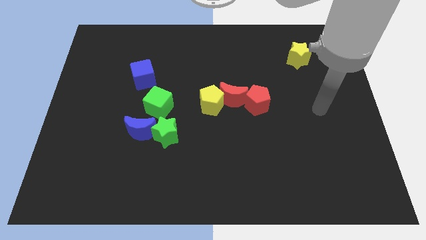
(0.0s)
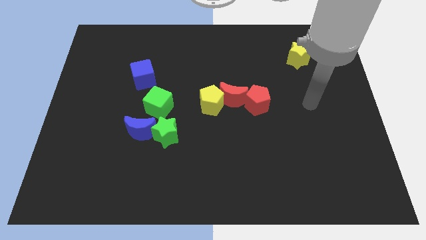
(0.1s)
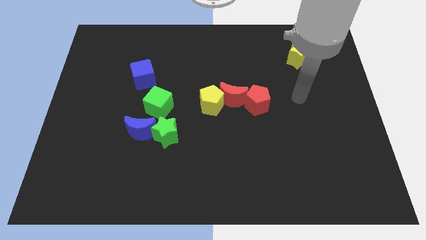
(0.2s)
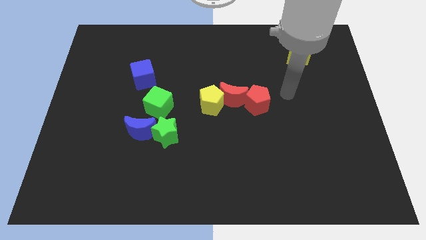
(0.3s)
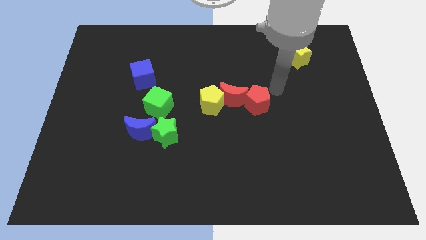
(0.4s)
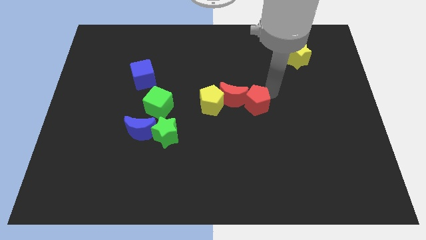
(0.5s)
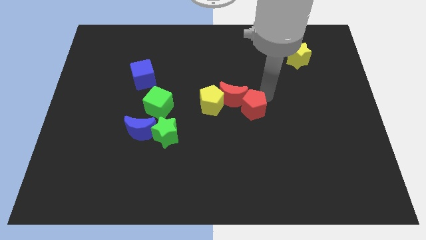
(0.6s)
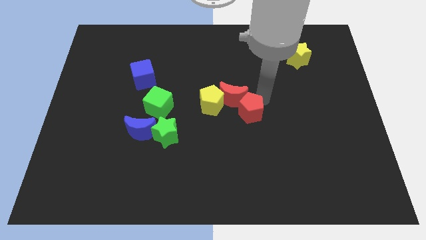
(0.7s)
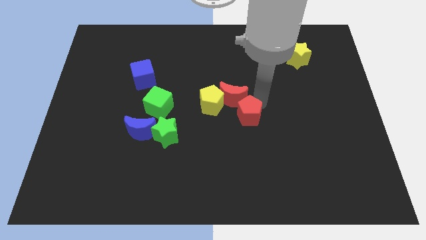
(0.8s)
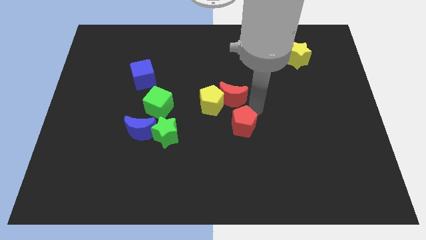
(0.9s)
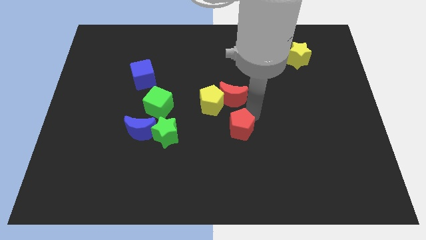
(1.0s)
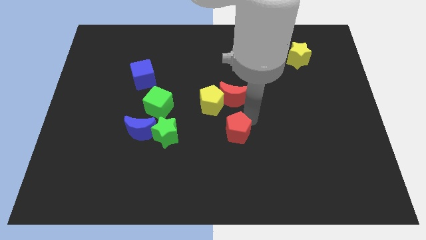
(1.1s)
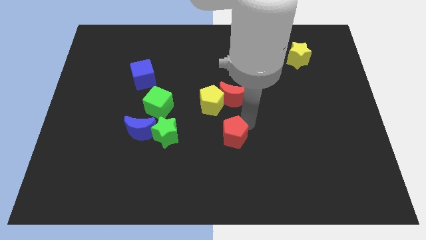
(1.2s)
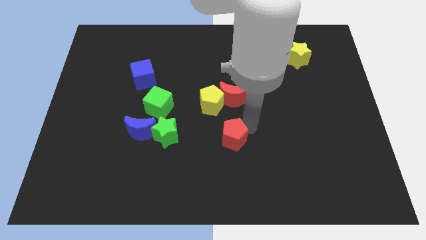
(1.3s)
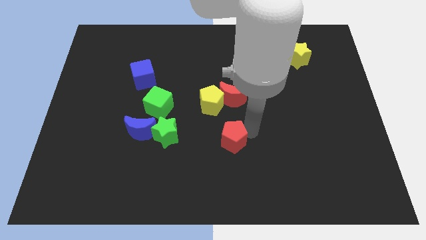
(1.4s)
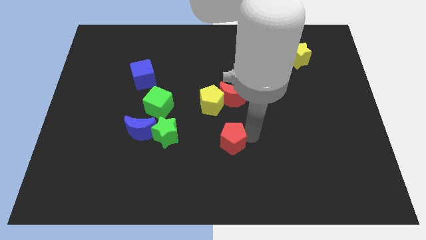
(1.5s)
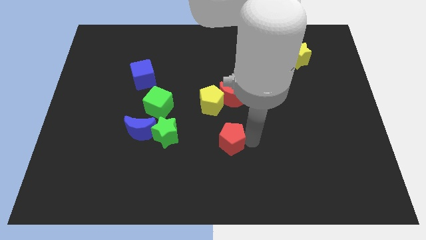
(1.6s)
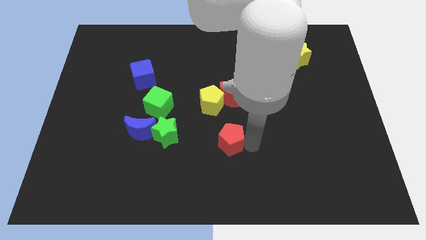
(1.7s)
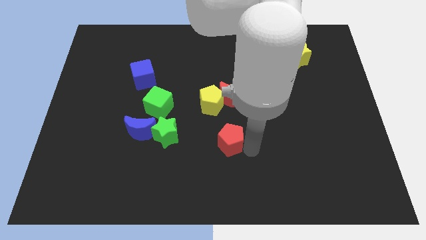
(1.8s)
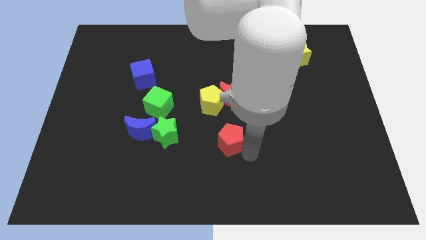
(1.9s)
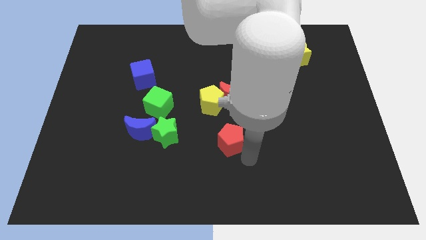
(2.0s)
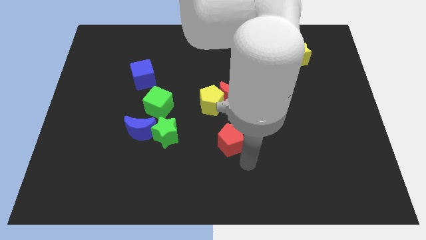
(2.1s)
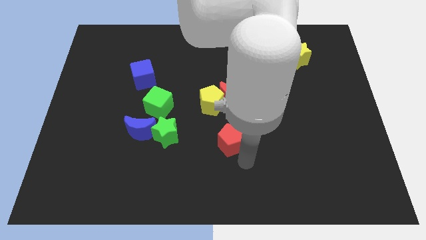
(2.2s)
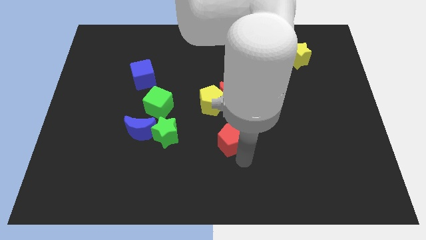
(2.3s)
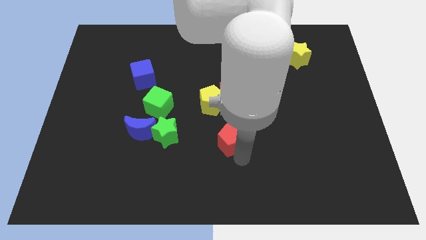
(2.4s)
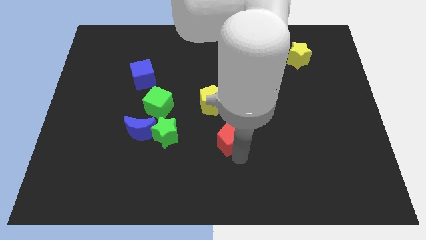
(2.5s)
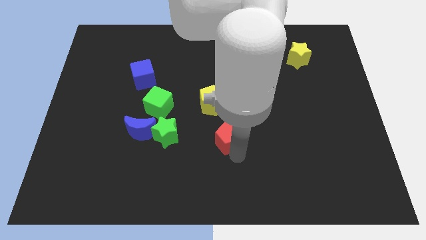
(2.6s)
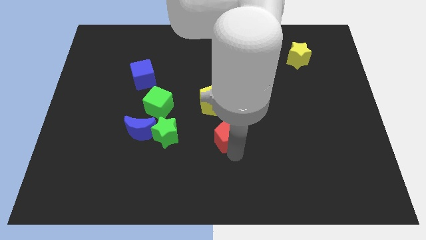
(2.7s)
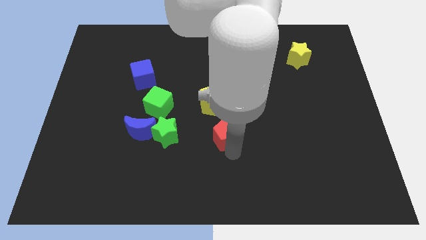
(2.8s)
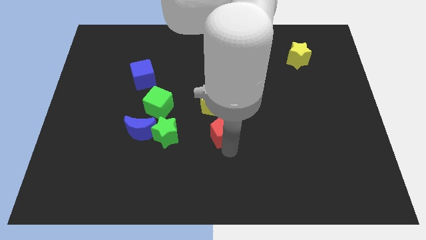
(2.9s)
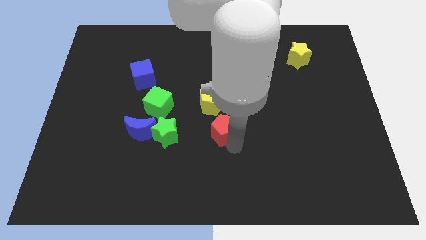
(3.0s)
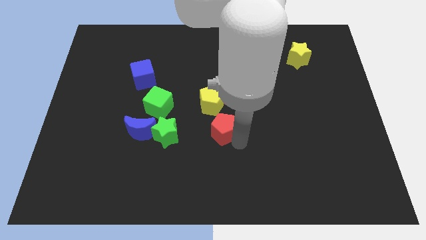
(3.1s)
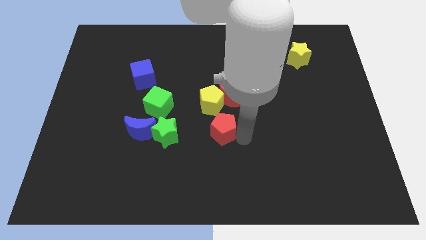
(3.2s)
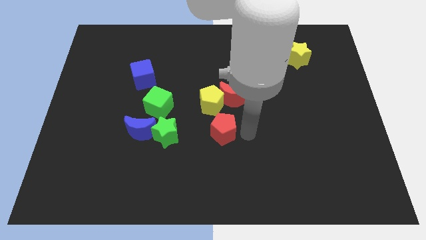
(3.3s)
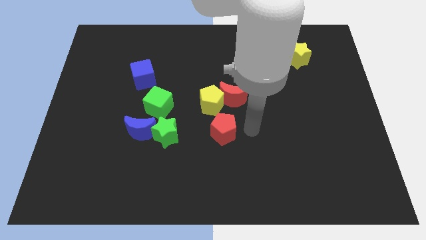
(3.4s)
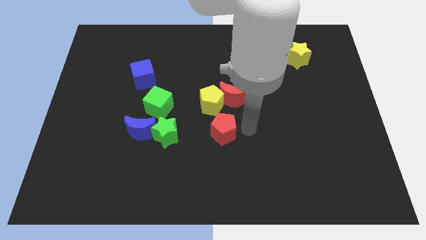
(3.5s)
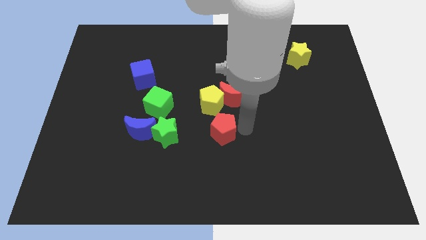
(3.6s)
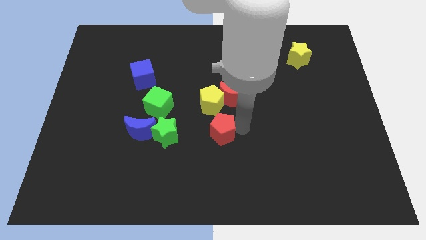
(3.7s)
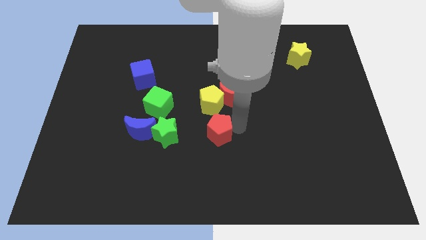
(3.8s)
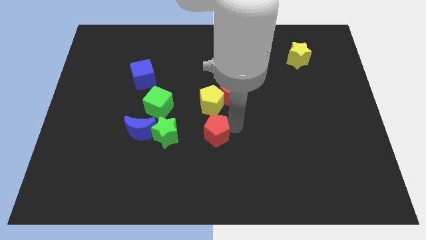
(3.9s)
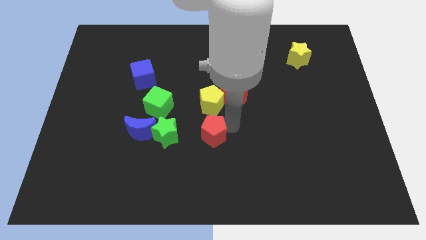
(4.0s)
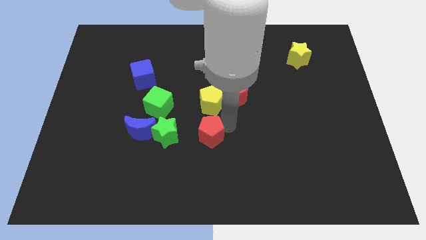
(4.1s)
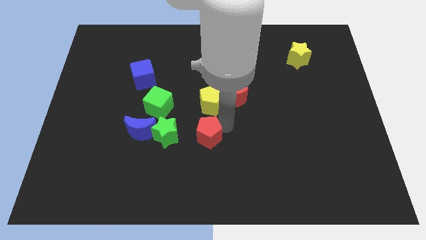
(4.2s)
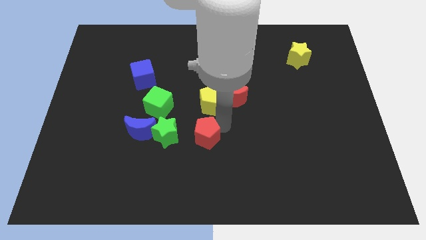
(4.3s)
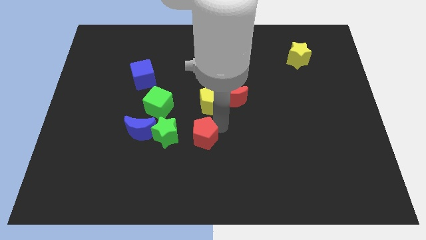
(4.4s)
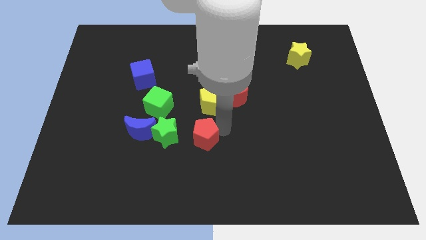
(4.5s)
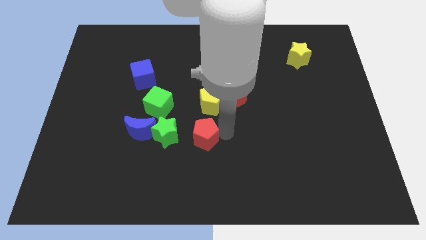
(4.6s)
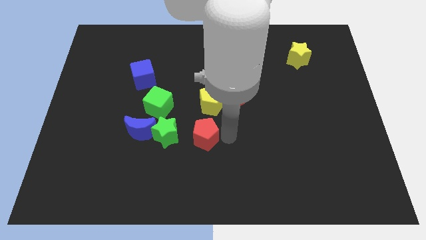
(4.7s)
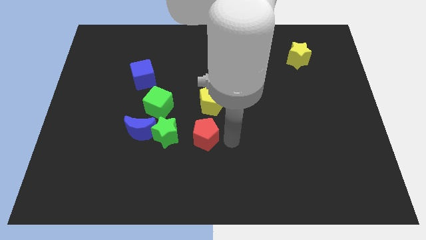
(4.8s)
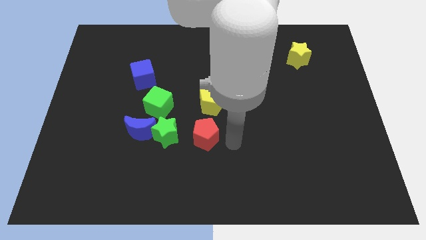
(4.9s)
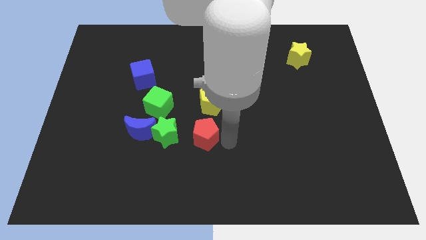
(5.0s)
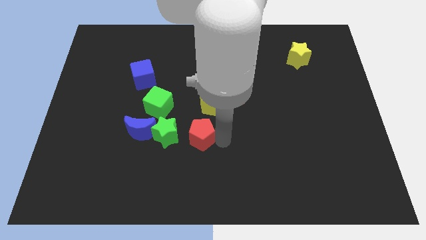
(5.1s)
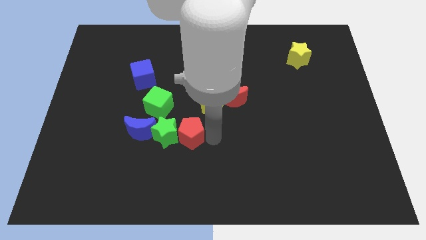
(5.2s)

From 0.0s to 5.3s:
push the red pentagon towards the green star

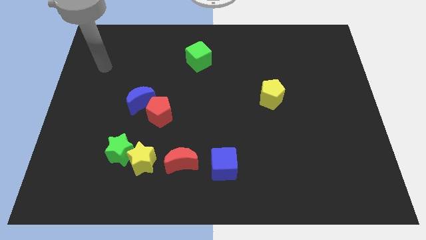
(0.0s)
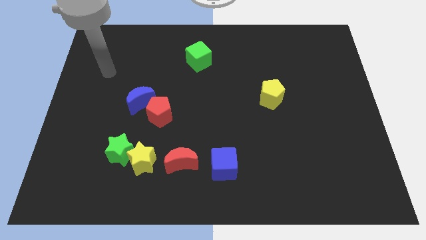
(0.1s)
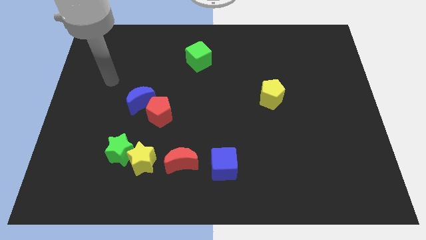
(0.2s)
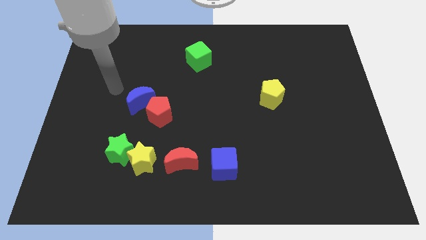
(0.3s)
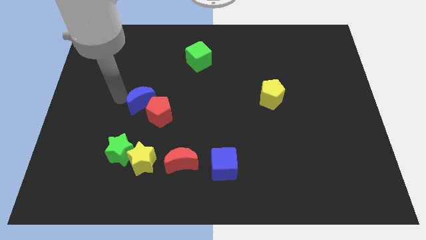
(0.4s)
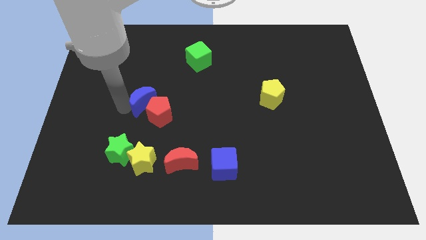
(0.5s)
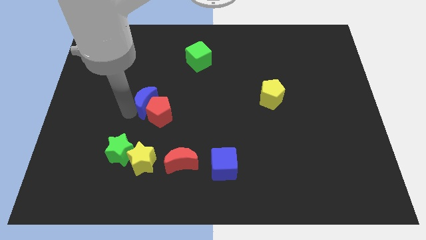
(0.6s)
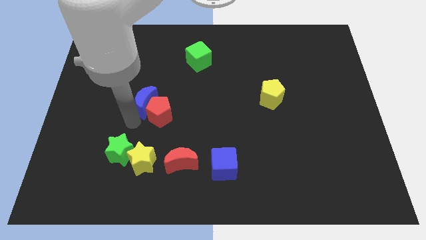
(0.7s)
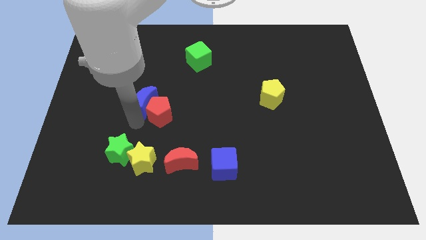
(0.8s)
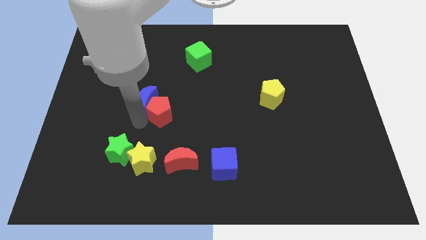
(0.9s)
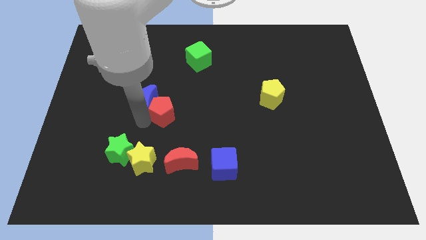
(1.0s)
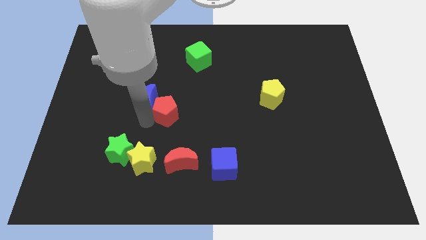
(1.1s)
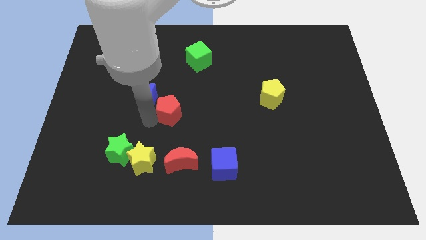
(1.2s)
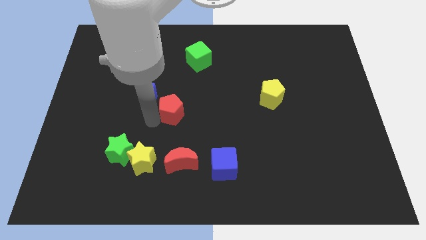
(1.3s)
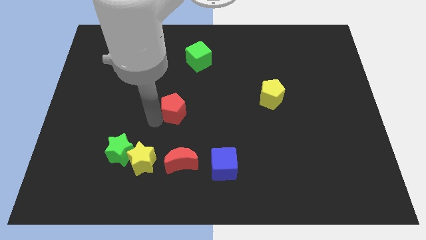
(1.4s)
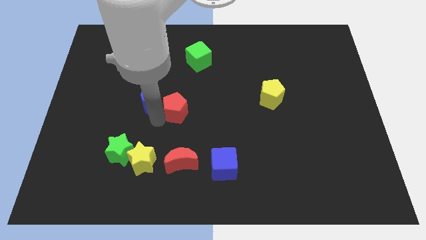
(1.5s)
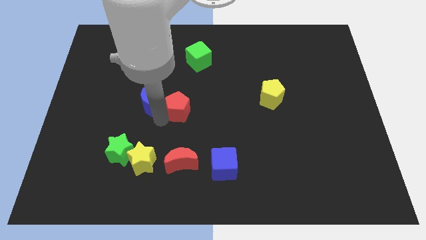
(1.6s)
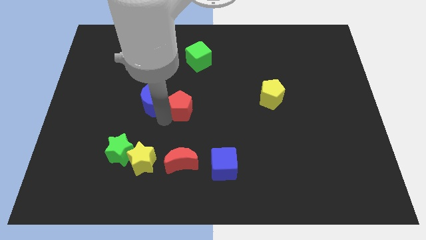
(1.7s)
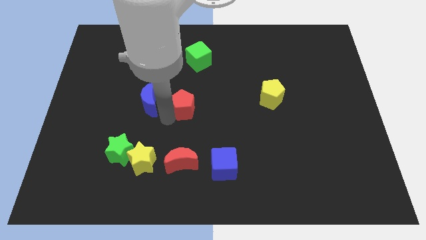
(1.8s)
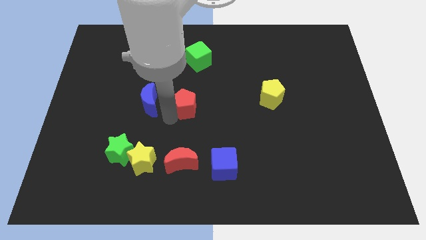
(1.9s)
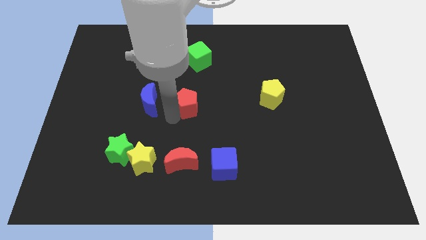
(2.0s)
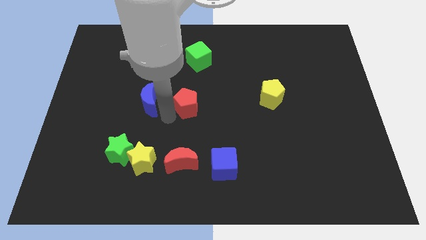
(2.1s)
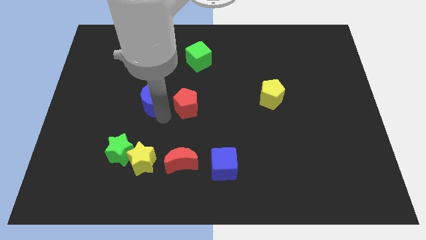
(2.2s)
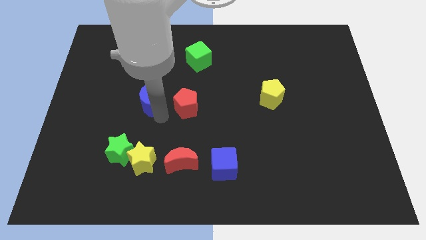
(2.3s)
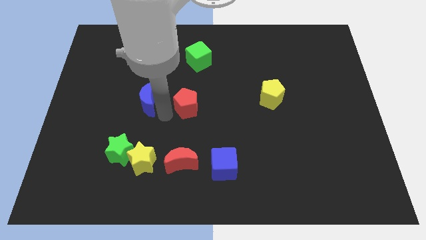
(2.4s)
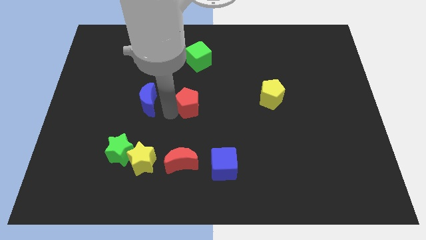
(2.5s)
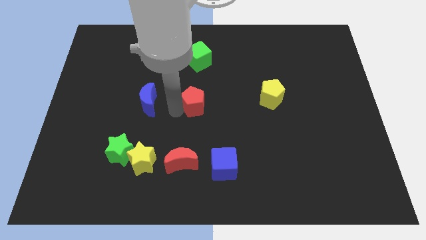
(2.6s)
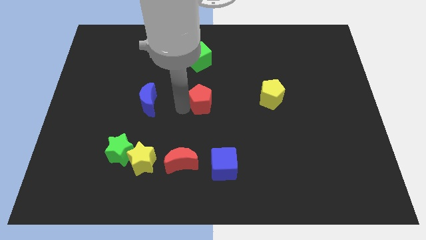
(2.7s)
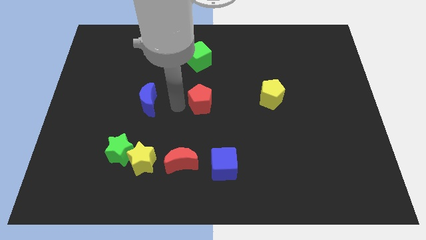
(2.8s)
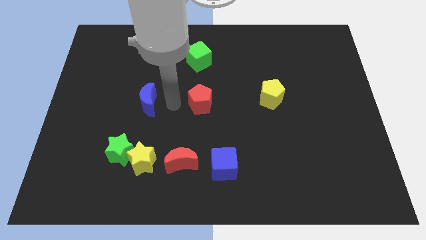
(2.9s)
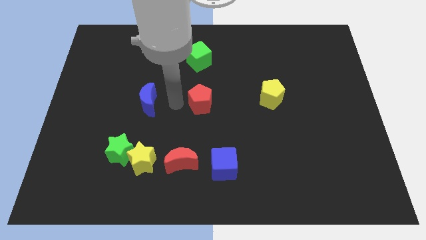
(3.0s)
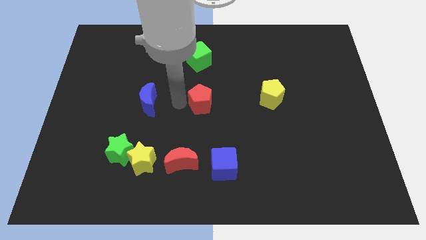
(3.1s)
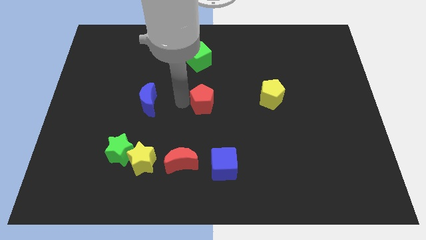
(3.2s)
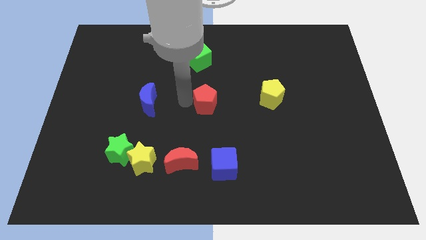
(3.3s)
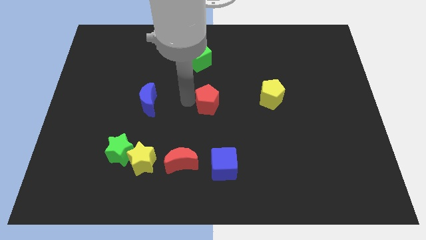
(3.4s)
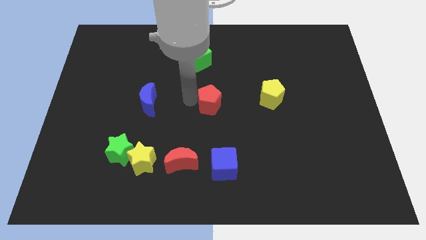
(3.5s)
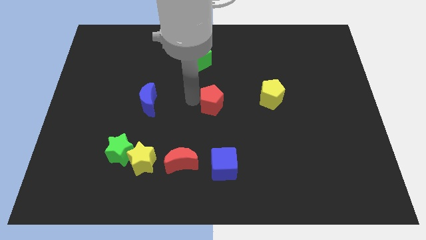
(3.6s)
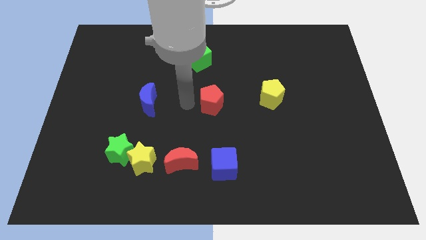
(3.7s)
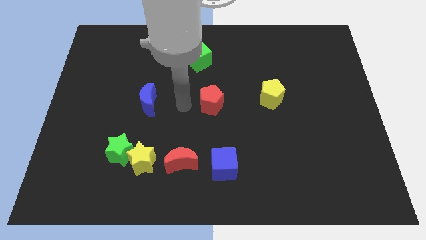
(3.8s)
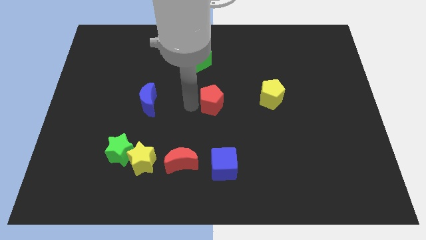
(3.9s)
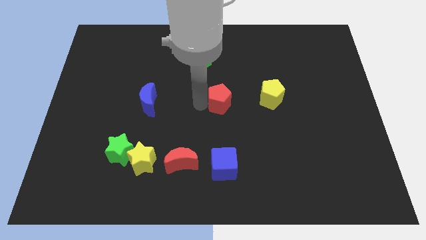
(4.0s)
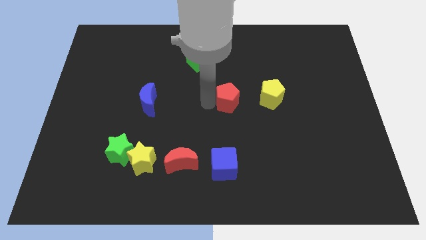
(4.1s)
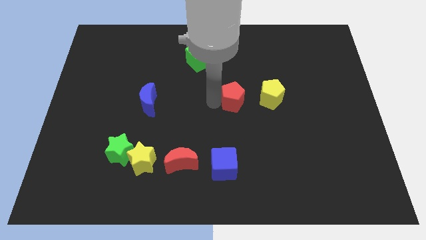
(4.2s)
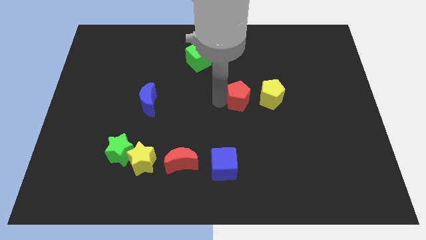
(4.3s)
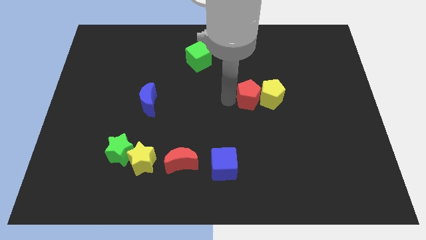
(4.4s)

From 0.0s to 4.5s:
put the red pentagon close to the yellow pentagon
